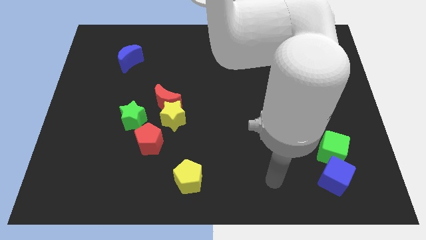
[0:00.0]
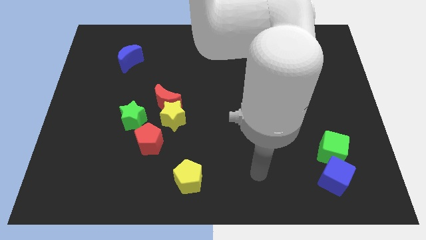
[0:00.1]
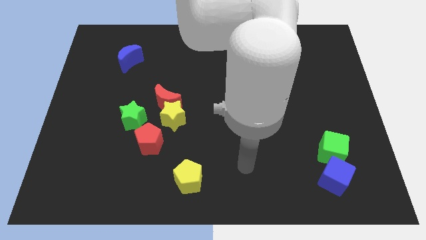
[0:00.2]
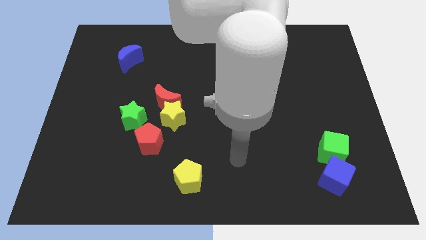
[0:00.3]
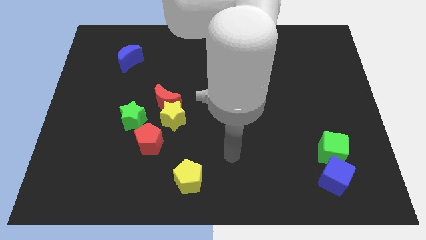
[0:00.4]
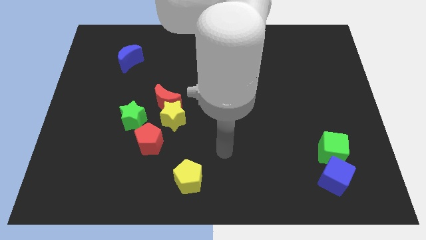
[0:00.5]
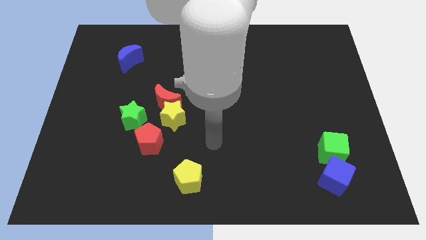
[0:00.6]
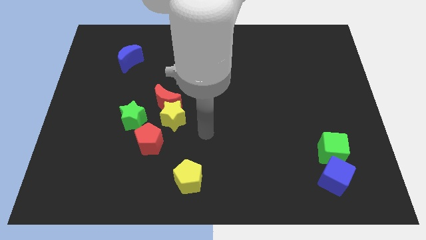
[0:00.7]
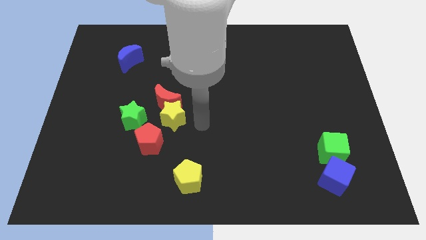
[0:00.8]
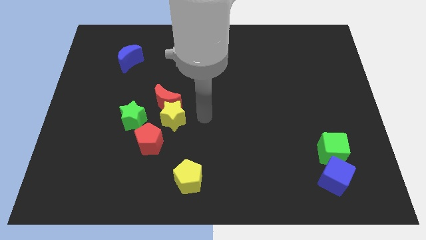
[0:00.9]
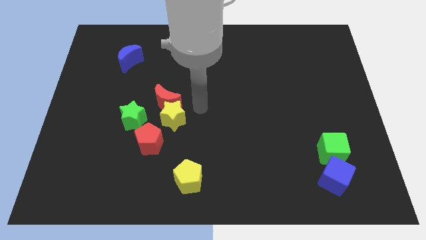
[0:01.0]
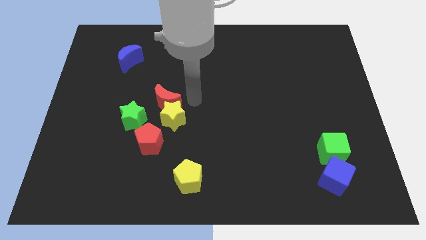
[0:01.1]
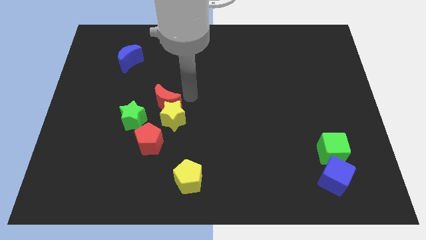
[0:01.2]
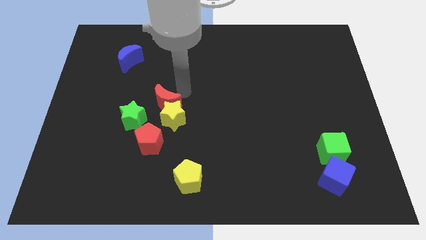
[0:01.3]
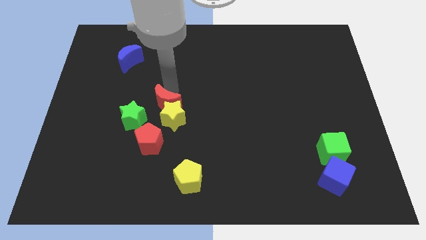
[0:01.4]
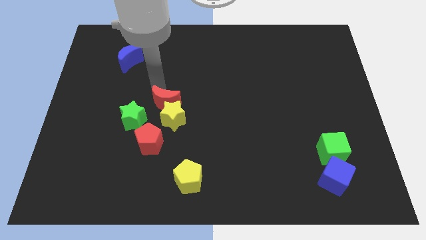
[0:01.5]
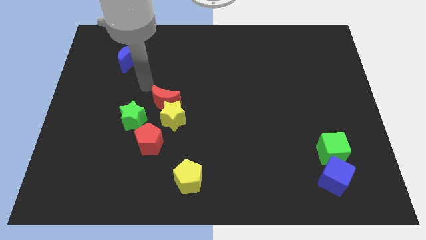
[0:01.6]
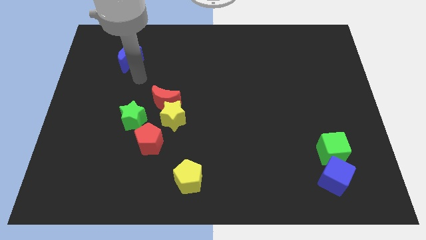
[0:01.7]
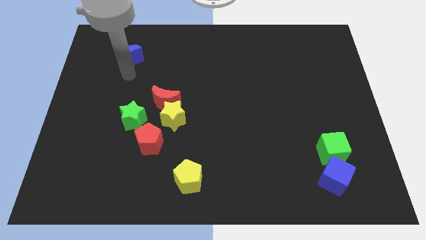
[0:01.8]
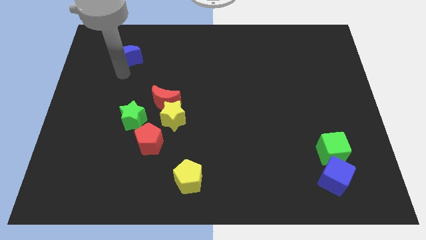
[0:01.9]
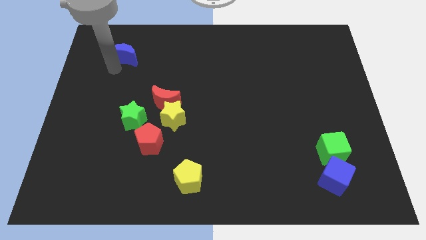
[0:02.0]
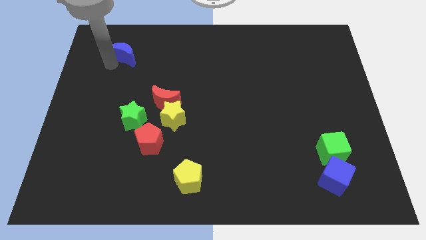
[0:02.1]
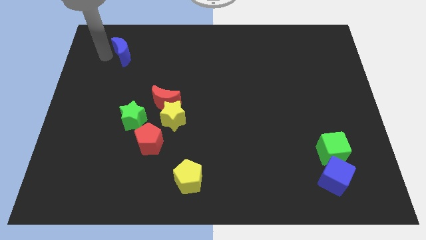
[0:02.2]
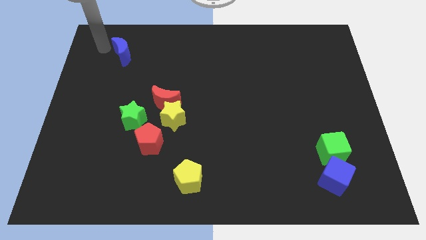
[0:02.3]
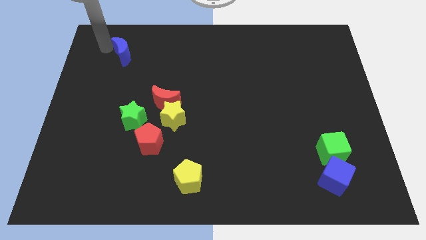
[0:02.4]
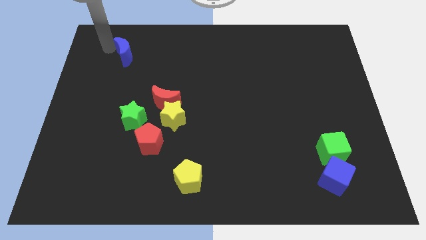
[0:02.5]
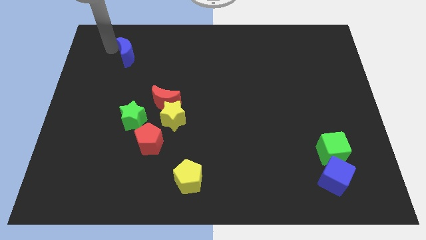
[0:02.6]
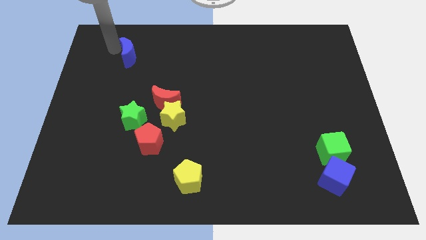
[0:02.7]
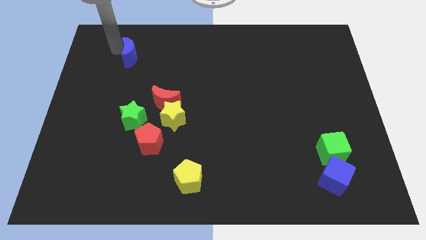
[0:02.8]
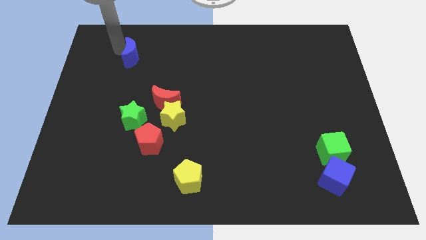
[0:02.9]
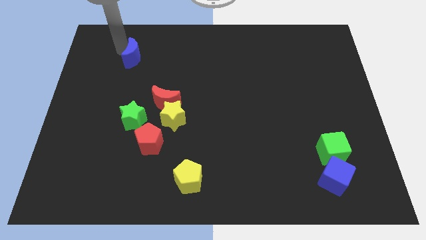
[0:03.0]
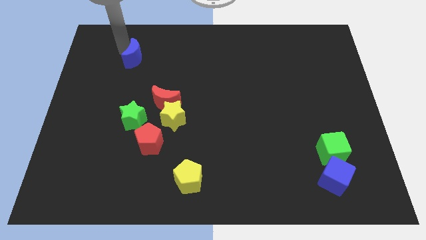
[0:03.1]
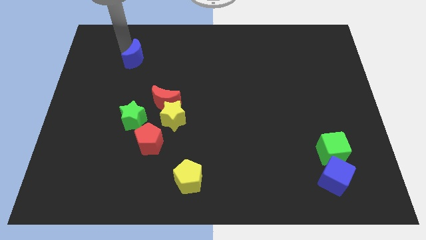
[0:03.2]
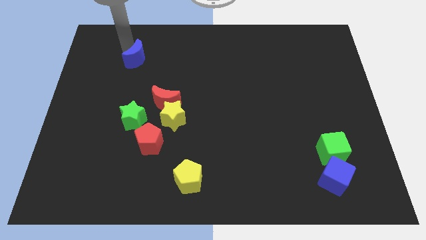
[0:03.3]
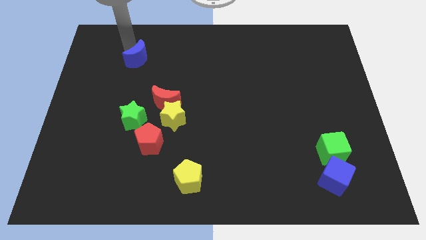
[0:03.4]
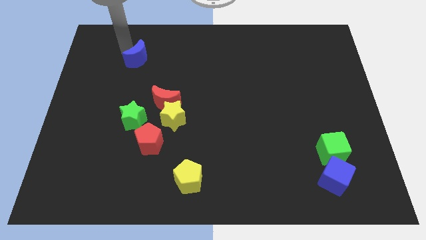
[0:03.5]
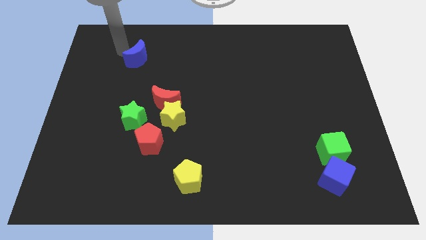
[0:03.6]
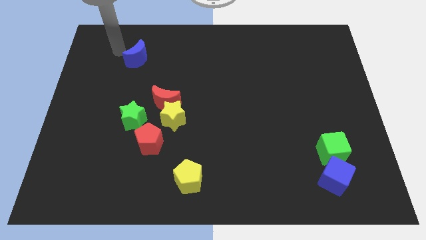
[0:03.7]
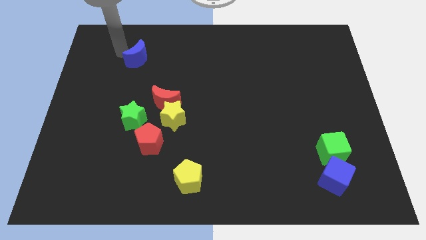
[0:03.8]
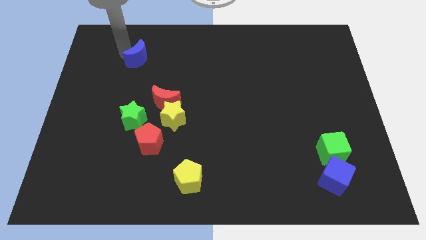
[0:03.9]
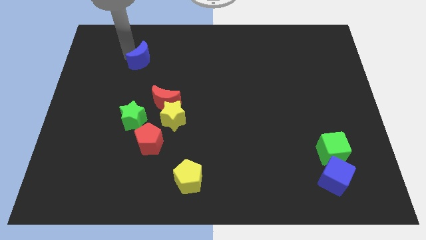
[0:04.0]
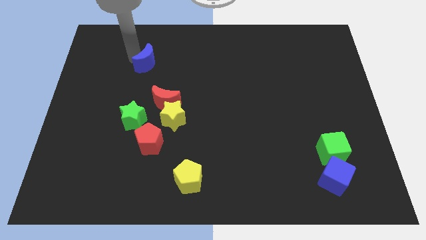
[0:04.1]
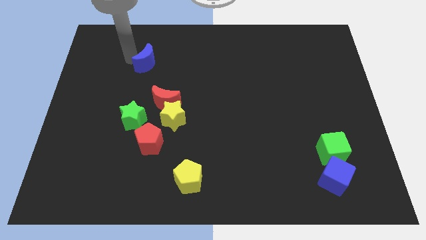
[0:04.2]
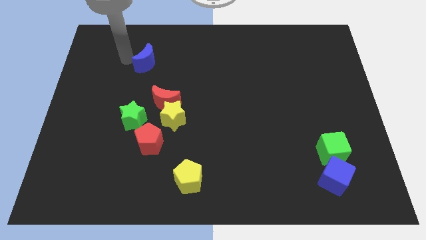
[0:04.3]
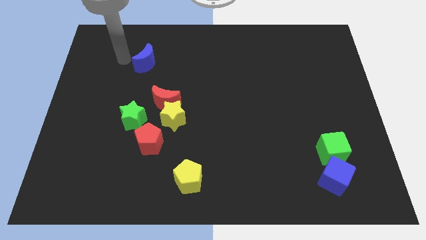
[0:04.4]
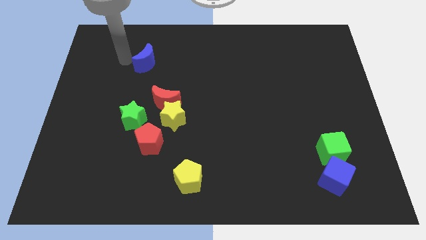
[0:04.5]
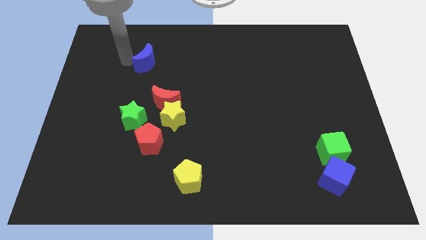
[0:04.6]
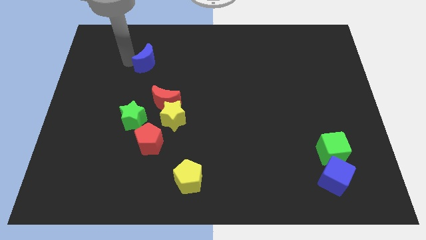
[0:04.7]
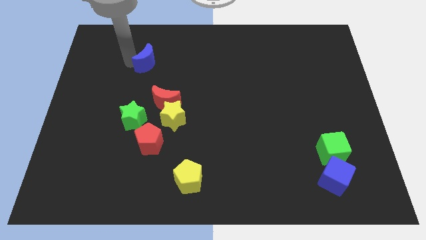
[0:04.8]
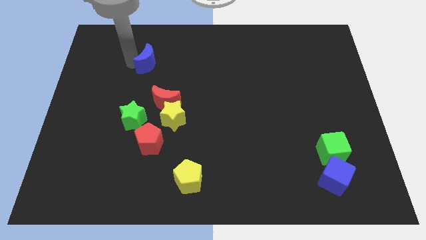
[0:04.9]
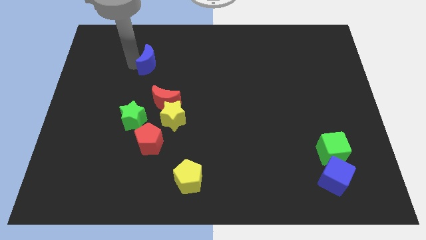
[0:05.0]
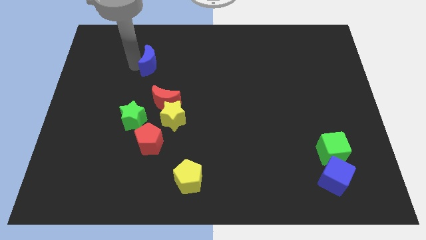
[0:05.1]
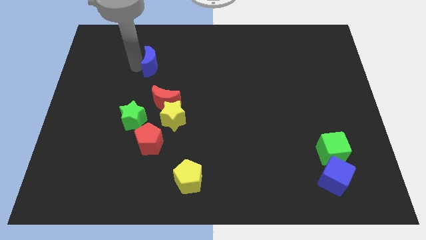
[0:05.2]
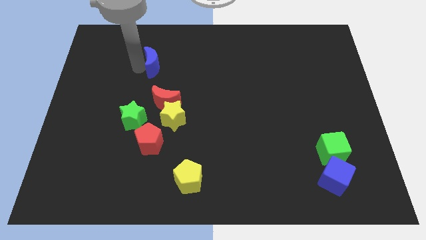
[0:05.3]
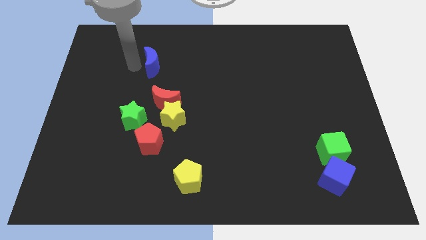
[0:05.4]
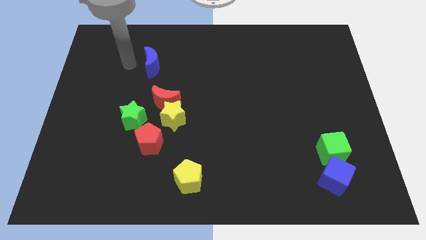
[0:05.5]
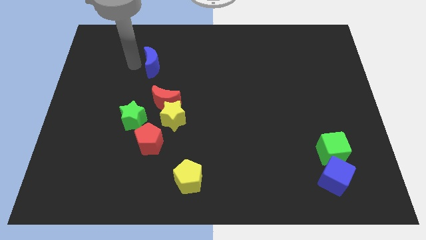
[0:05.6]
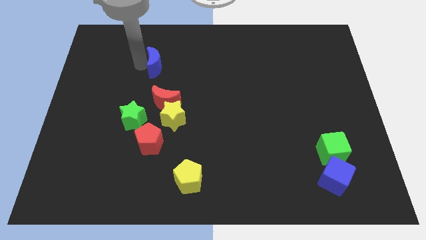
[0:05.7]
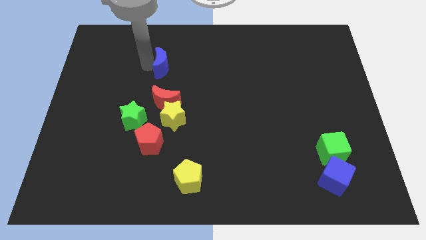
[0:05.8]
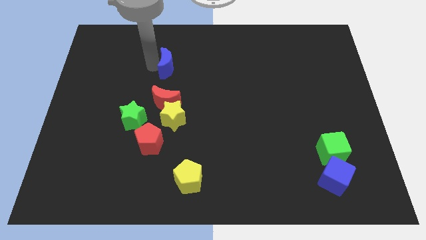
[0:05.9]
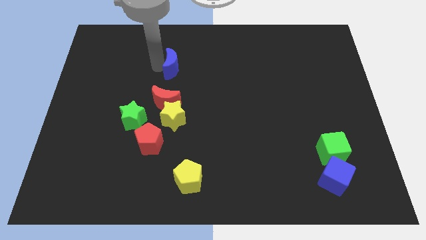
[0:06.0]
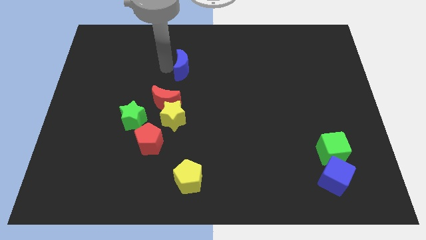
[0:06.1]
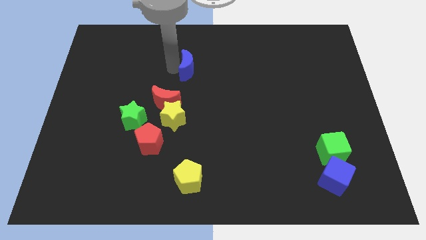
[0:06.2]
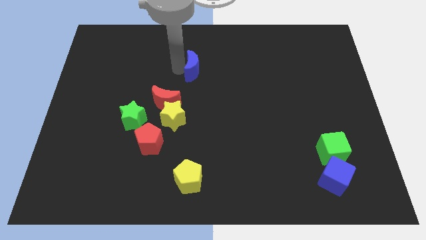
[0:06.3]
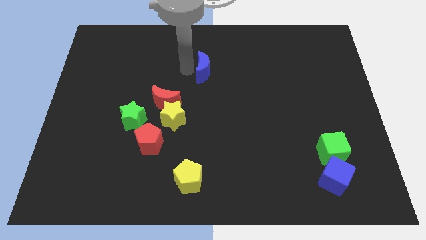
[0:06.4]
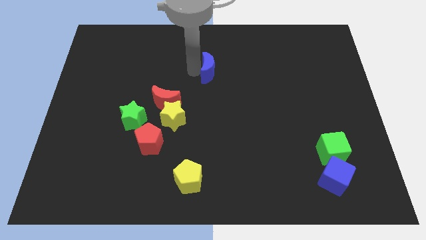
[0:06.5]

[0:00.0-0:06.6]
move the blue moon to the right

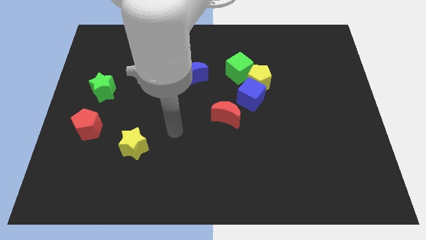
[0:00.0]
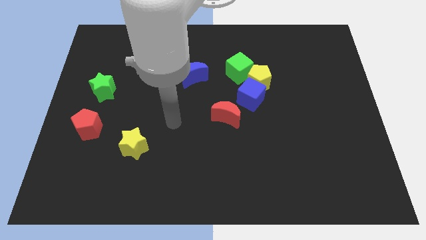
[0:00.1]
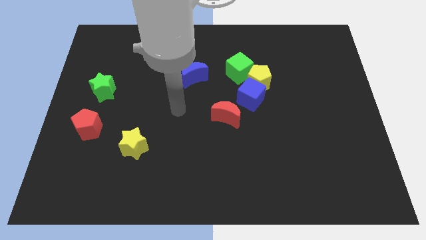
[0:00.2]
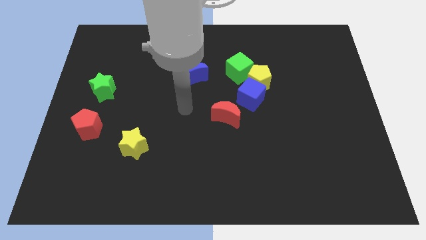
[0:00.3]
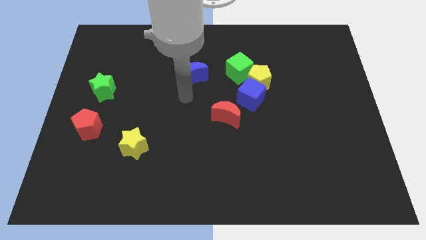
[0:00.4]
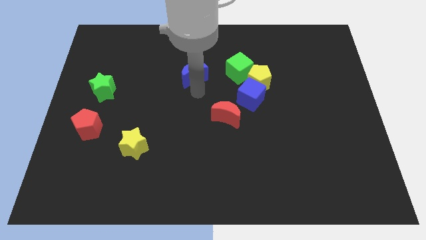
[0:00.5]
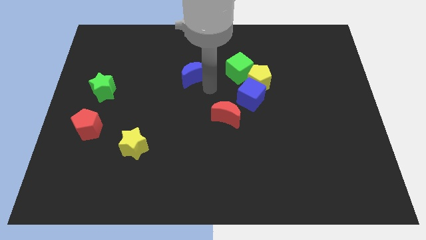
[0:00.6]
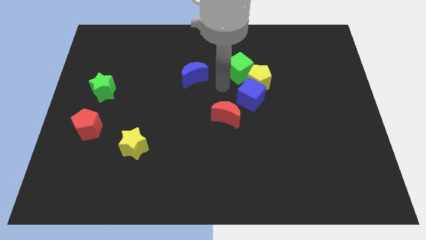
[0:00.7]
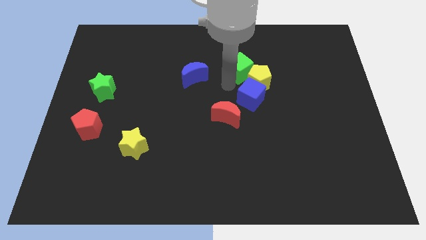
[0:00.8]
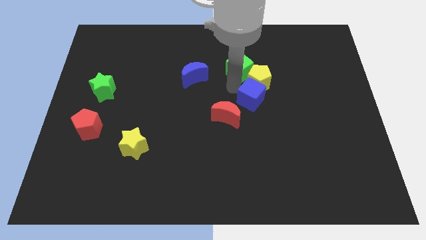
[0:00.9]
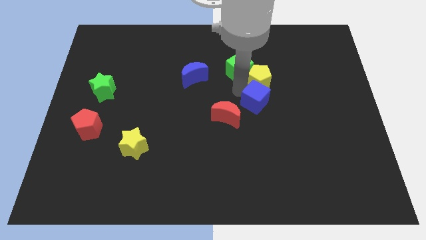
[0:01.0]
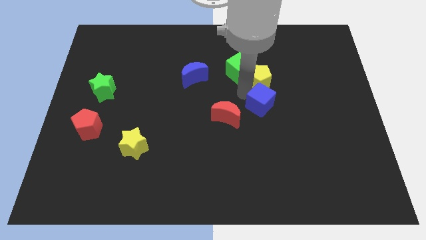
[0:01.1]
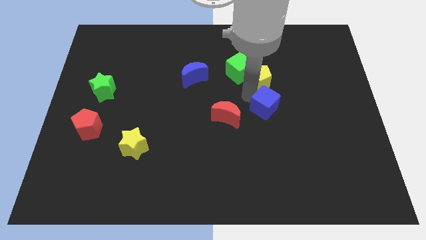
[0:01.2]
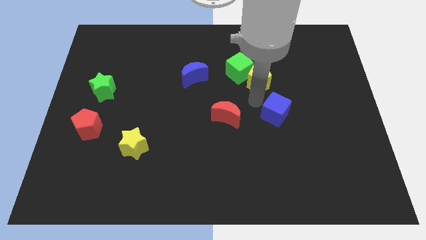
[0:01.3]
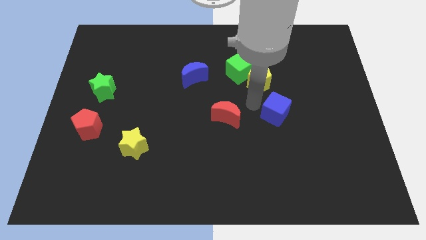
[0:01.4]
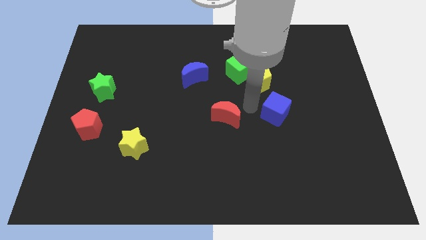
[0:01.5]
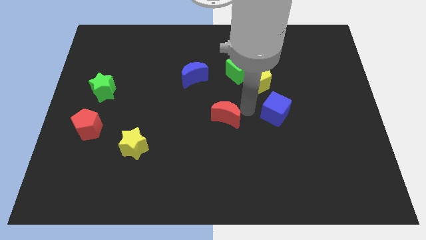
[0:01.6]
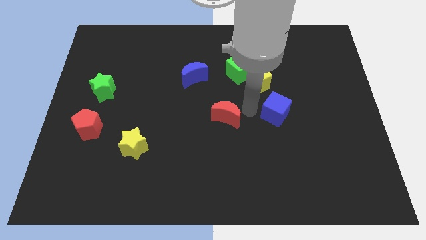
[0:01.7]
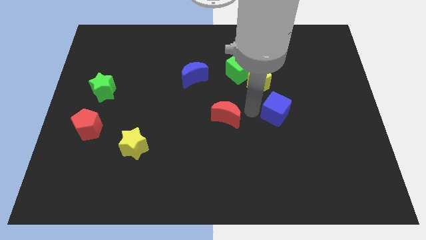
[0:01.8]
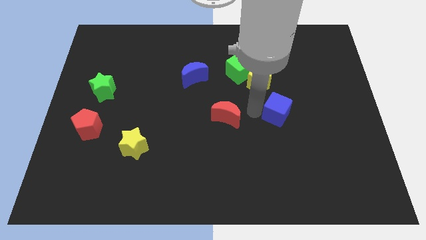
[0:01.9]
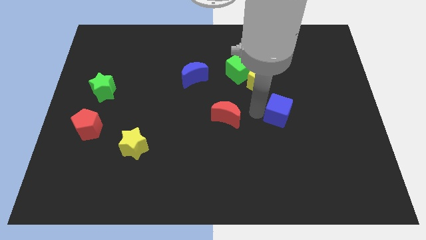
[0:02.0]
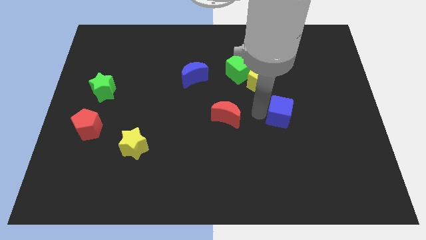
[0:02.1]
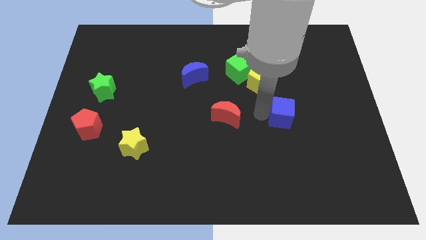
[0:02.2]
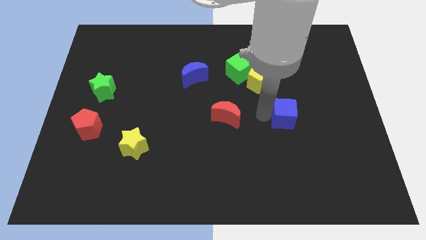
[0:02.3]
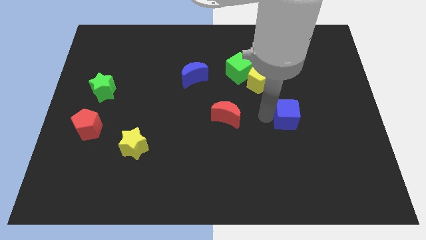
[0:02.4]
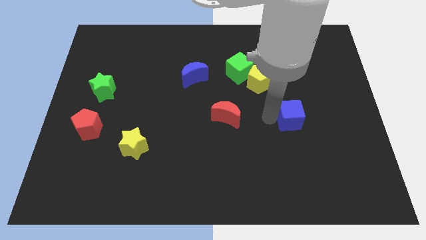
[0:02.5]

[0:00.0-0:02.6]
slide the blue cube right a bit
